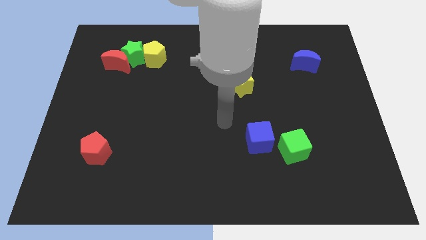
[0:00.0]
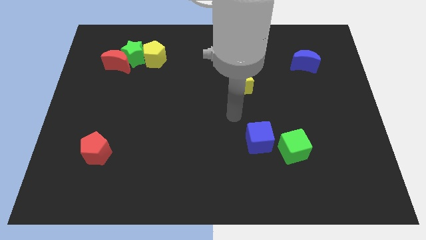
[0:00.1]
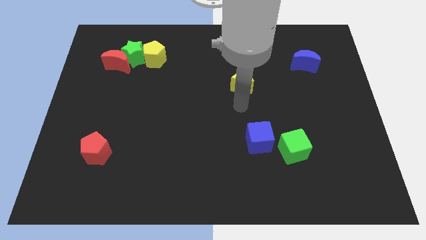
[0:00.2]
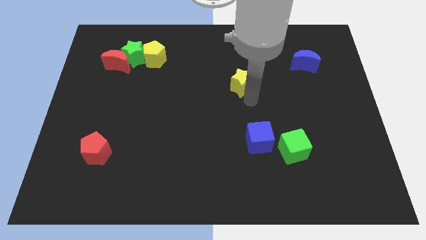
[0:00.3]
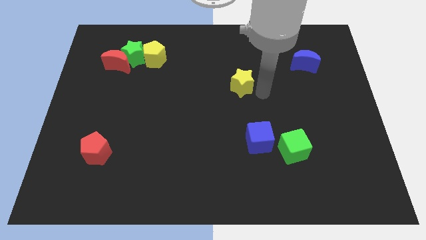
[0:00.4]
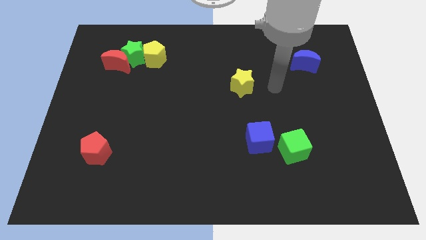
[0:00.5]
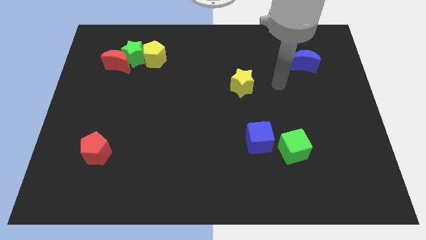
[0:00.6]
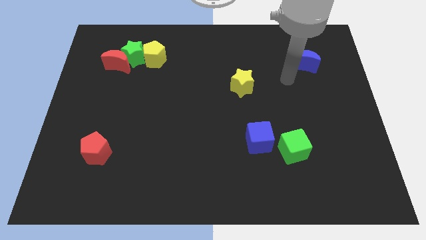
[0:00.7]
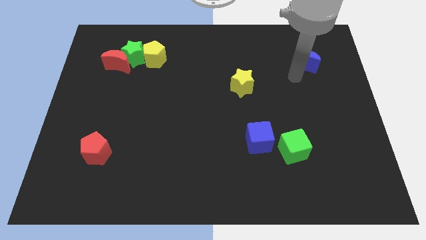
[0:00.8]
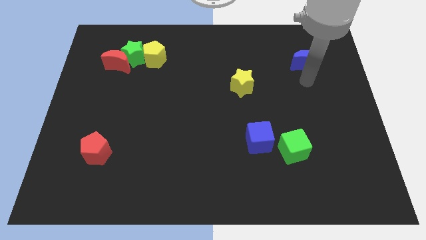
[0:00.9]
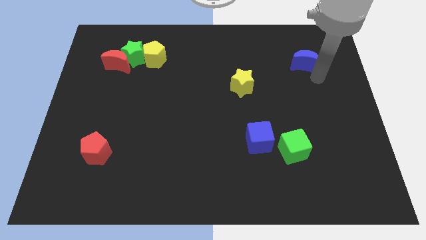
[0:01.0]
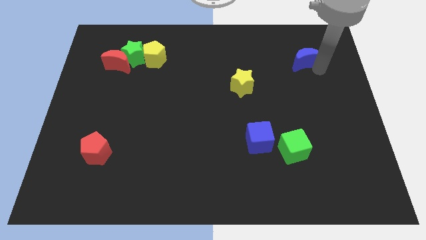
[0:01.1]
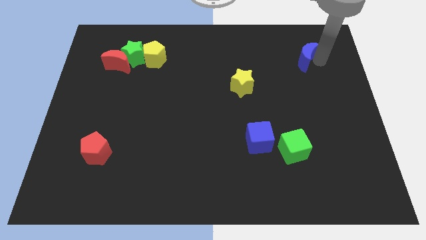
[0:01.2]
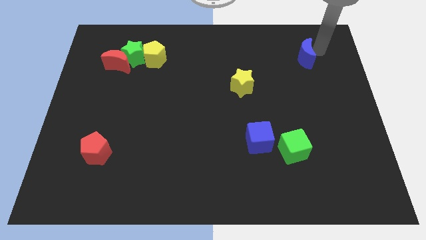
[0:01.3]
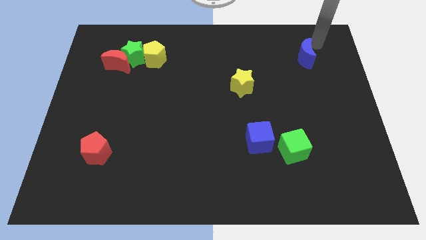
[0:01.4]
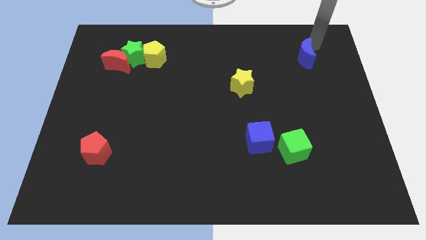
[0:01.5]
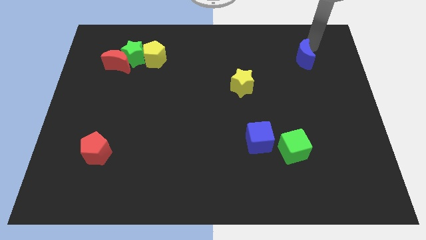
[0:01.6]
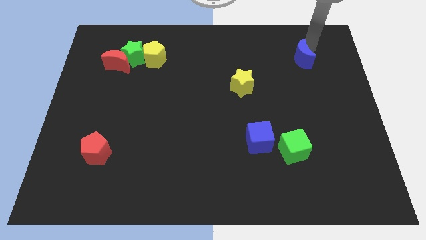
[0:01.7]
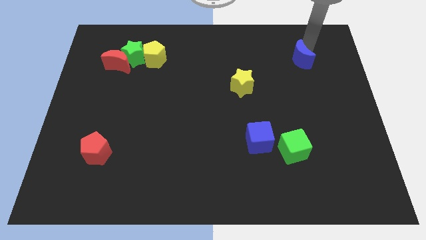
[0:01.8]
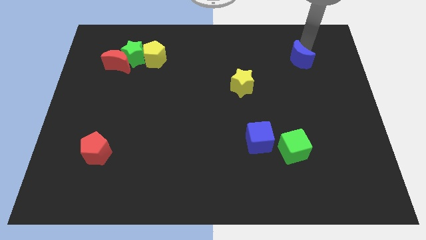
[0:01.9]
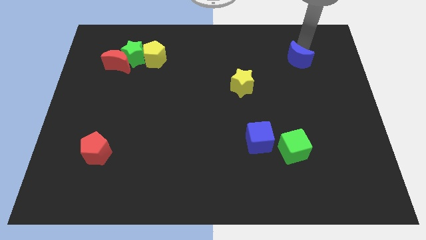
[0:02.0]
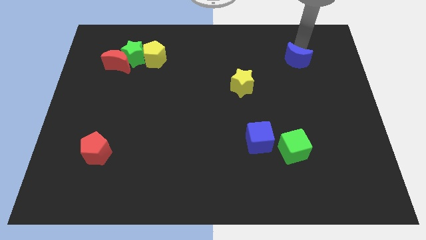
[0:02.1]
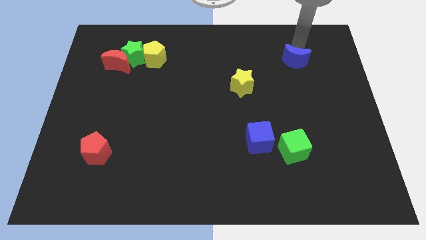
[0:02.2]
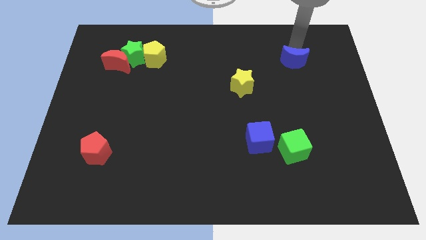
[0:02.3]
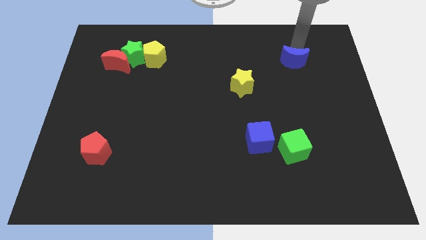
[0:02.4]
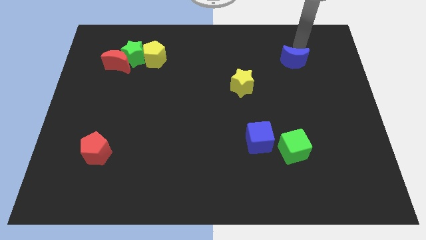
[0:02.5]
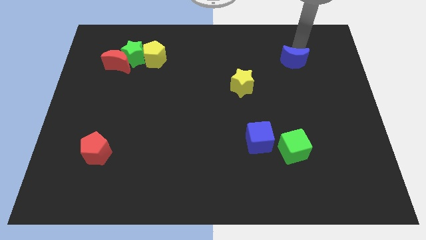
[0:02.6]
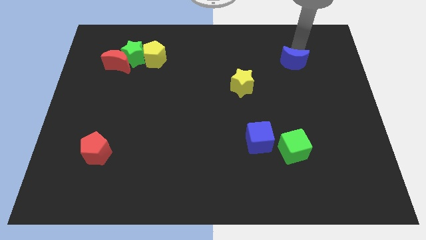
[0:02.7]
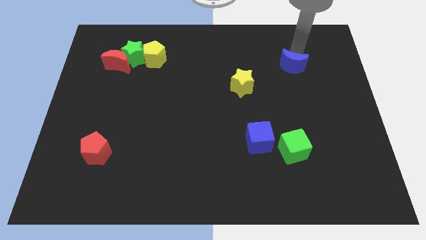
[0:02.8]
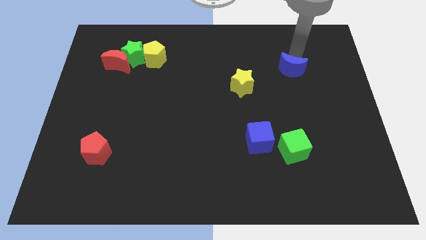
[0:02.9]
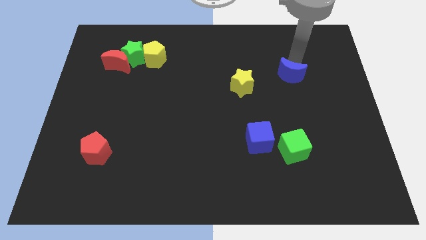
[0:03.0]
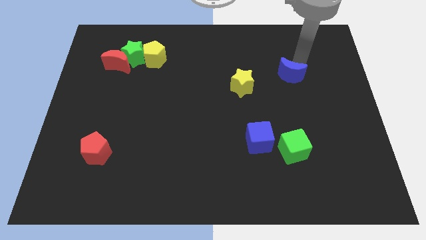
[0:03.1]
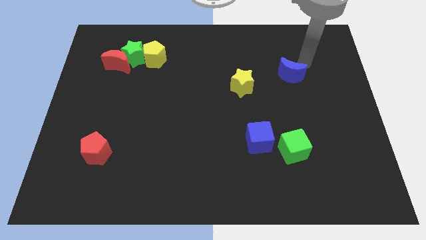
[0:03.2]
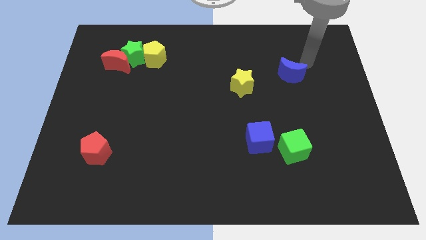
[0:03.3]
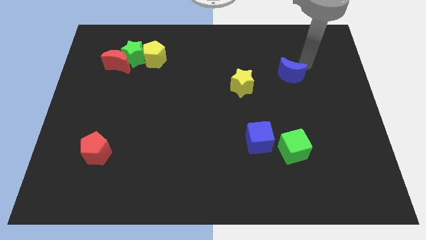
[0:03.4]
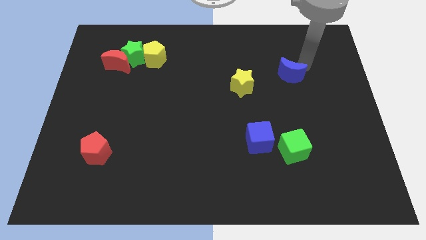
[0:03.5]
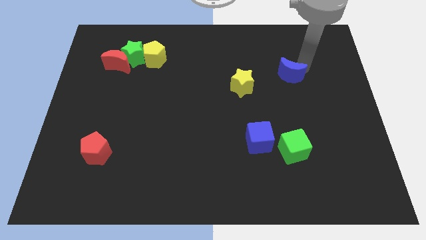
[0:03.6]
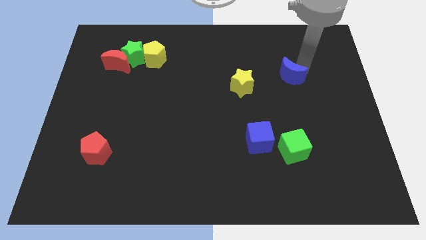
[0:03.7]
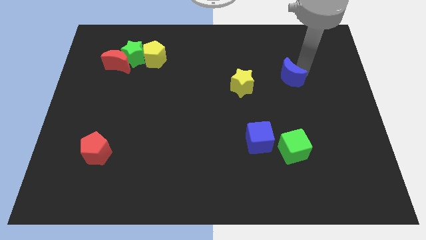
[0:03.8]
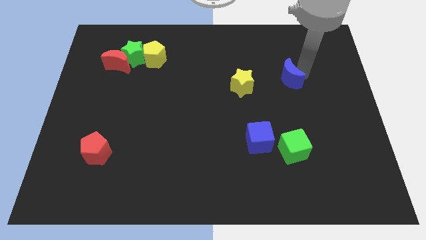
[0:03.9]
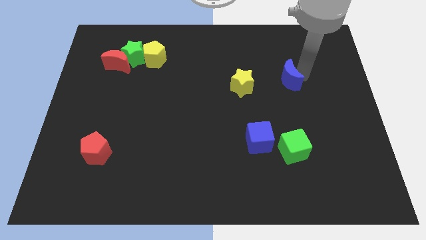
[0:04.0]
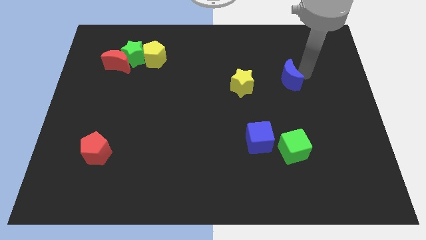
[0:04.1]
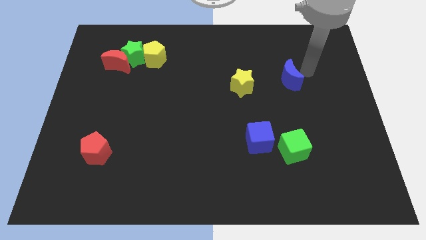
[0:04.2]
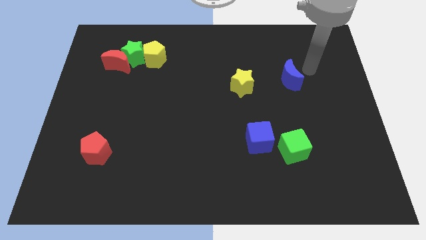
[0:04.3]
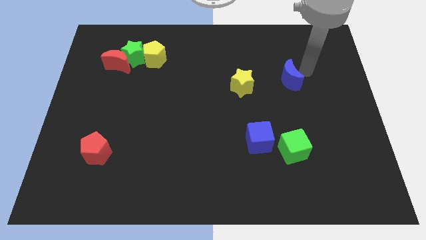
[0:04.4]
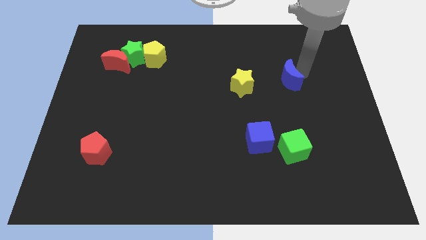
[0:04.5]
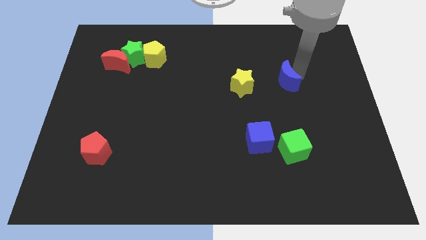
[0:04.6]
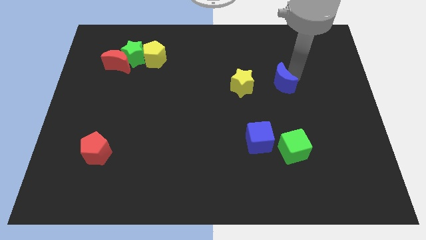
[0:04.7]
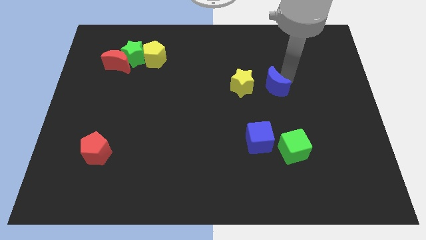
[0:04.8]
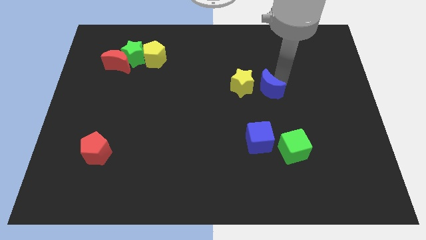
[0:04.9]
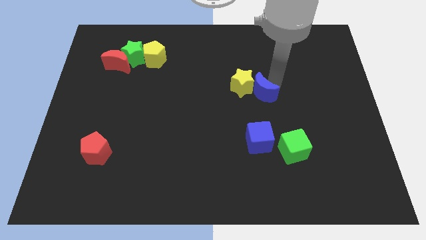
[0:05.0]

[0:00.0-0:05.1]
slide the blue moon to the top of the blue cube

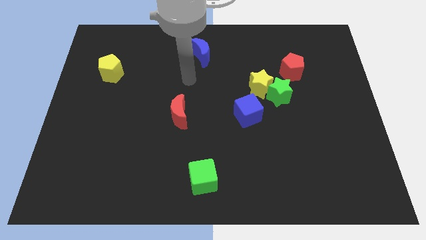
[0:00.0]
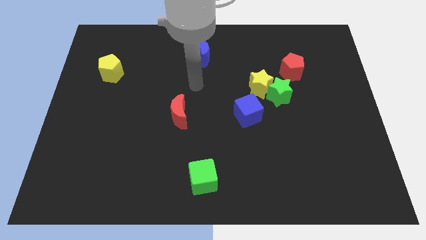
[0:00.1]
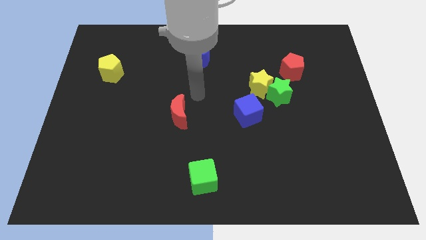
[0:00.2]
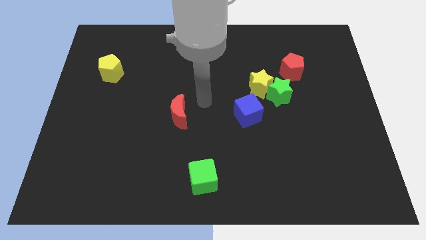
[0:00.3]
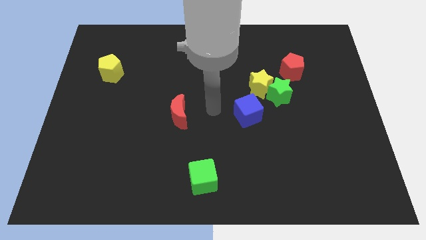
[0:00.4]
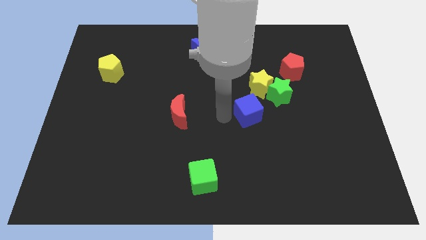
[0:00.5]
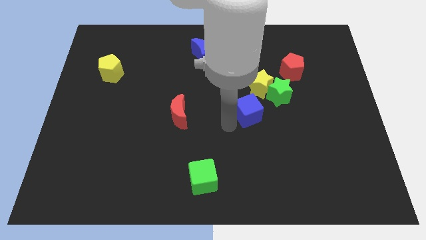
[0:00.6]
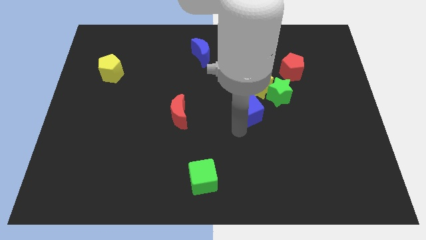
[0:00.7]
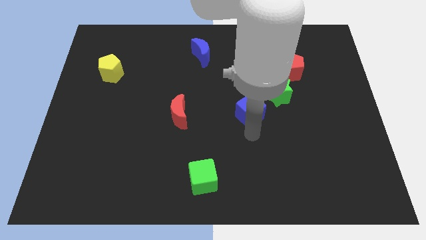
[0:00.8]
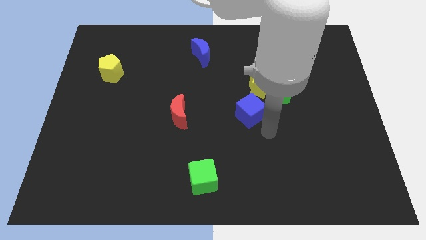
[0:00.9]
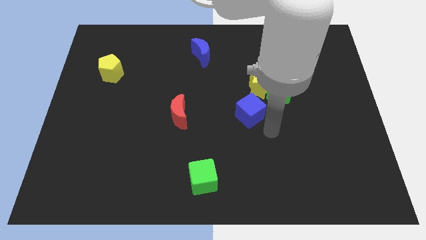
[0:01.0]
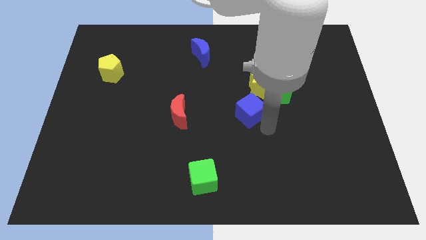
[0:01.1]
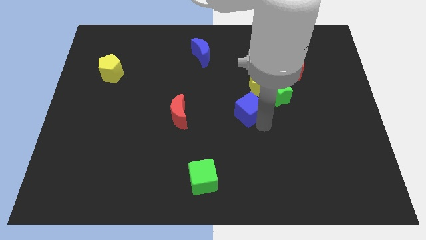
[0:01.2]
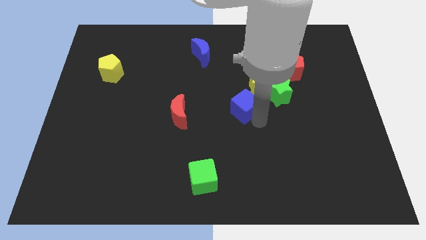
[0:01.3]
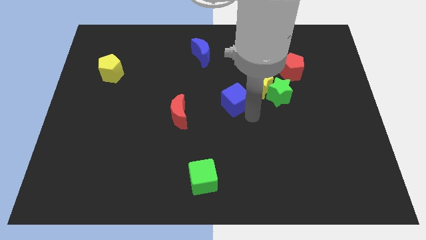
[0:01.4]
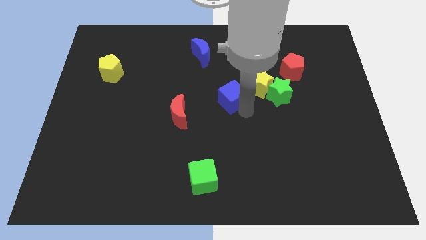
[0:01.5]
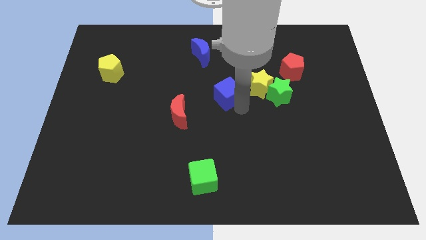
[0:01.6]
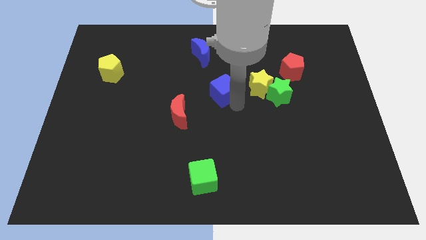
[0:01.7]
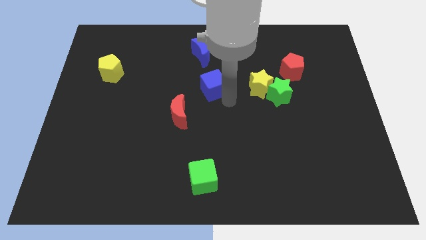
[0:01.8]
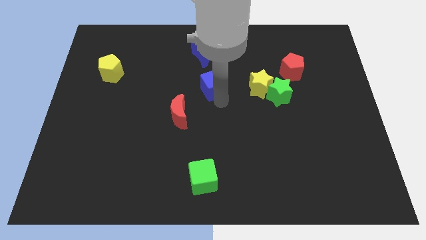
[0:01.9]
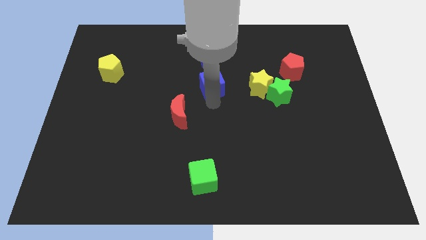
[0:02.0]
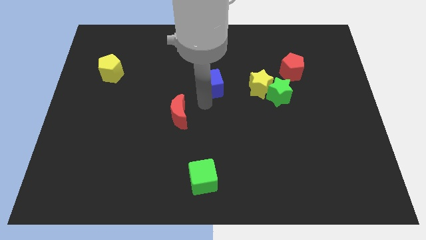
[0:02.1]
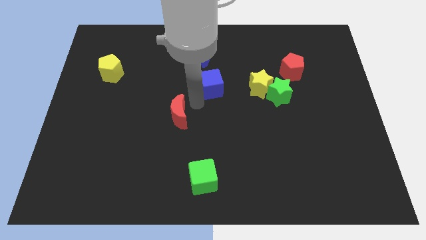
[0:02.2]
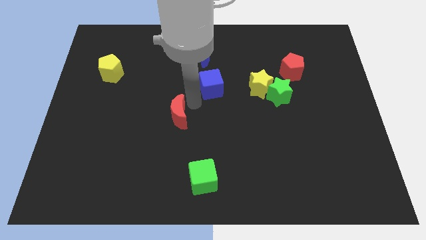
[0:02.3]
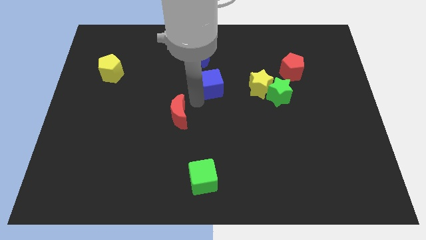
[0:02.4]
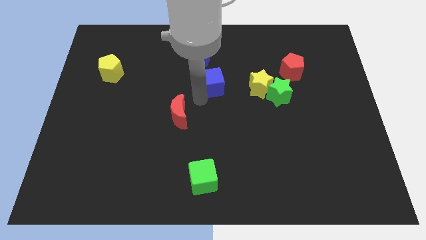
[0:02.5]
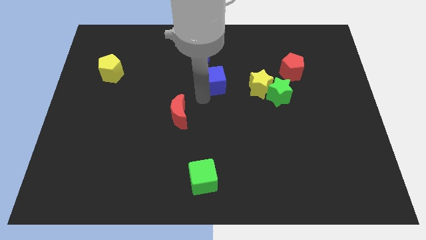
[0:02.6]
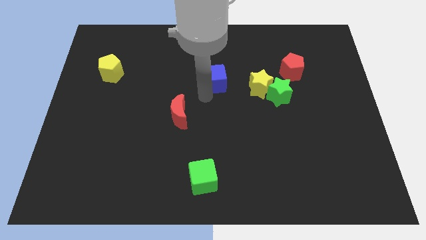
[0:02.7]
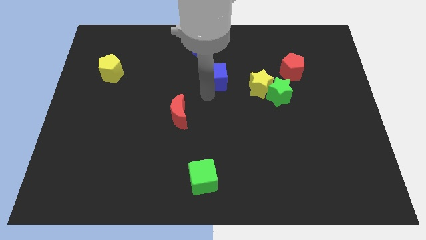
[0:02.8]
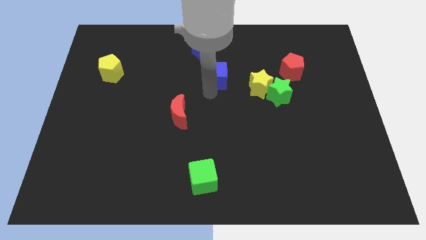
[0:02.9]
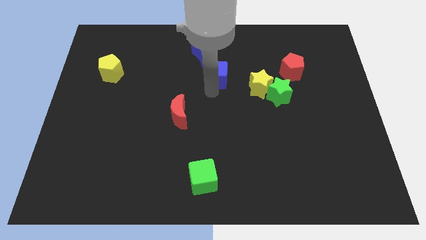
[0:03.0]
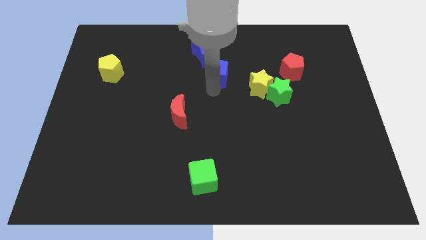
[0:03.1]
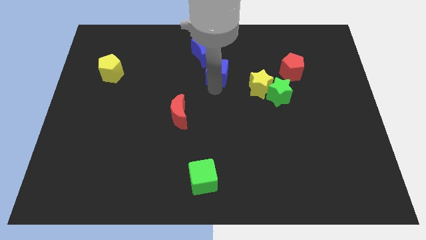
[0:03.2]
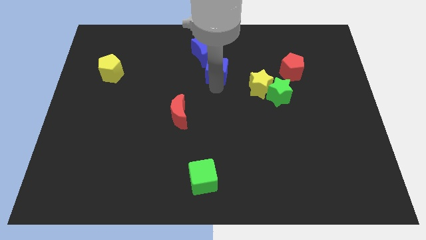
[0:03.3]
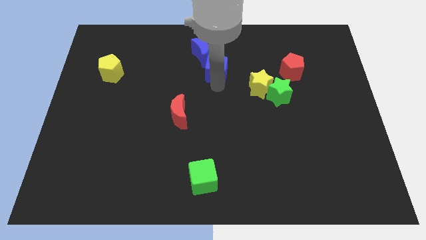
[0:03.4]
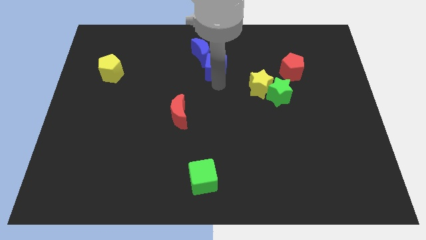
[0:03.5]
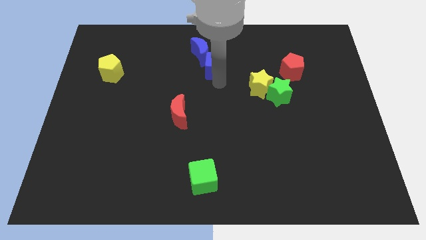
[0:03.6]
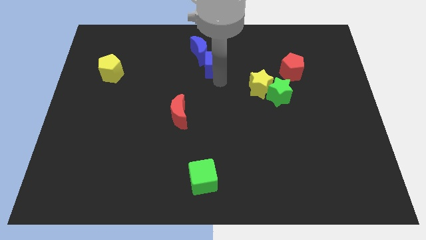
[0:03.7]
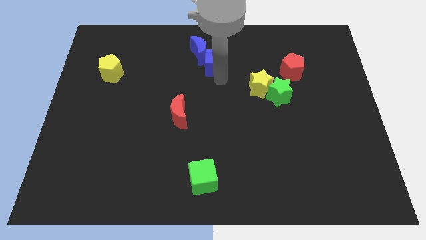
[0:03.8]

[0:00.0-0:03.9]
put the blue cube right of the blue moon
